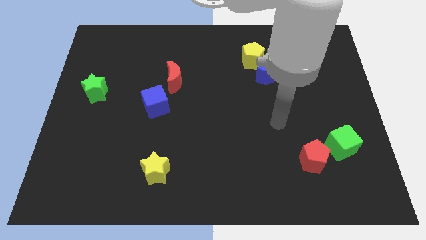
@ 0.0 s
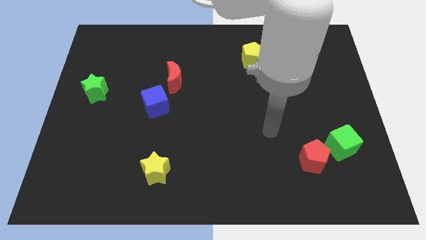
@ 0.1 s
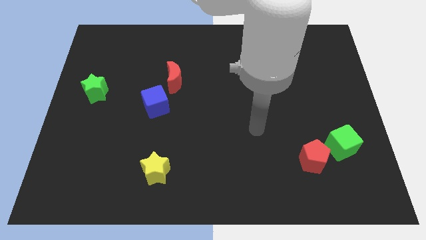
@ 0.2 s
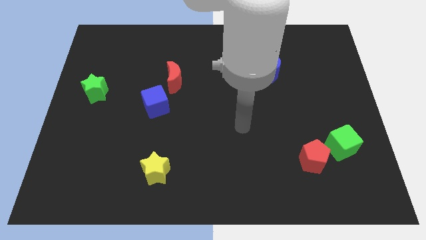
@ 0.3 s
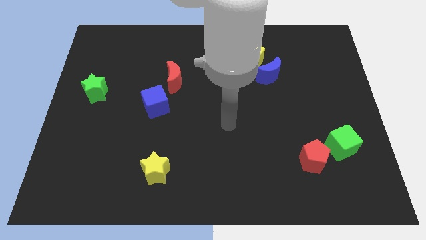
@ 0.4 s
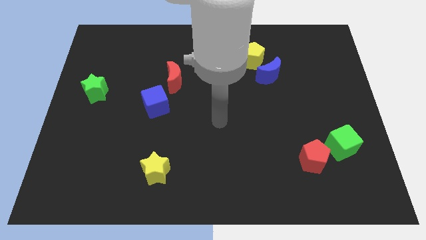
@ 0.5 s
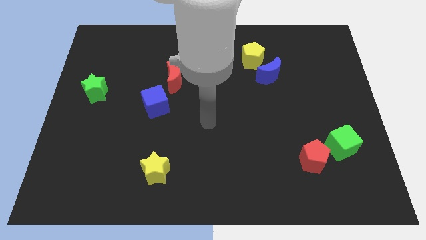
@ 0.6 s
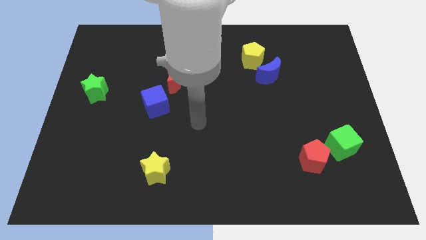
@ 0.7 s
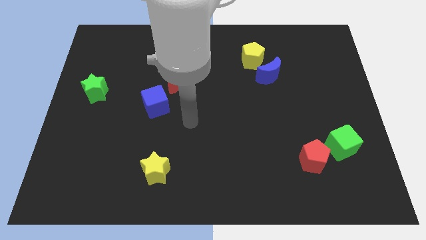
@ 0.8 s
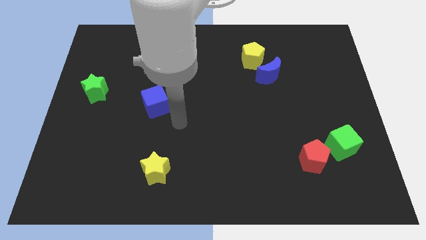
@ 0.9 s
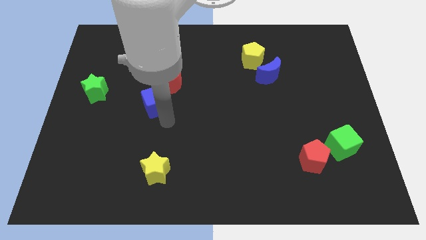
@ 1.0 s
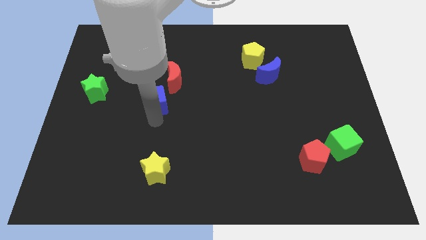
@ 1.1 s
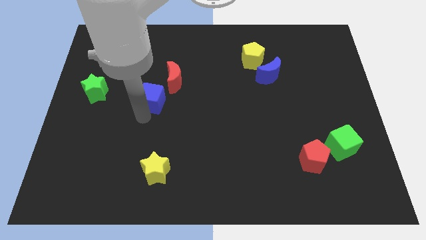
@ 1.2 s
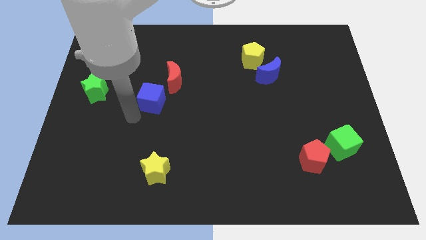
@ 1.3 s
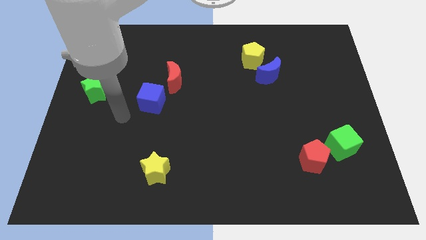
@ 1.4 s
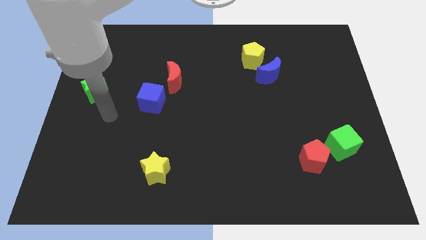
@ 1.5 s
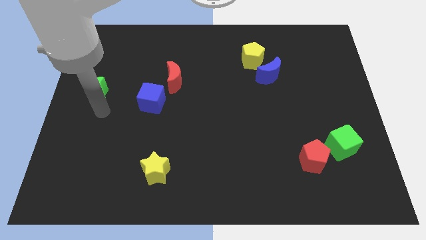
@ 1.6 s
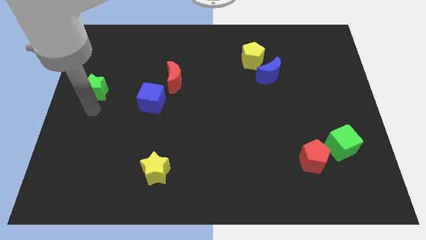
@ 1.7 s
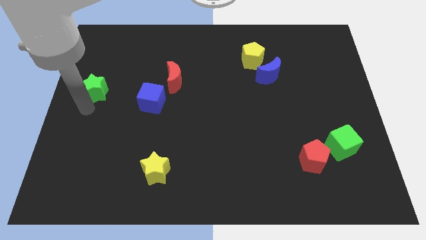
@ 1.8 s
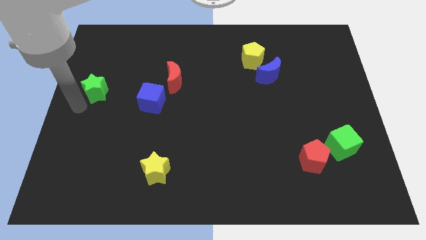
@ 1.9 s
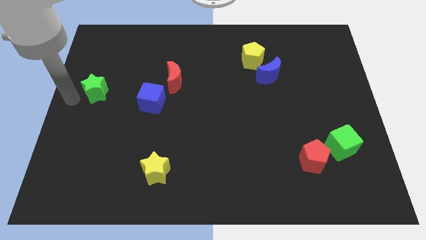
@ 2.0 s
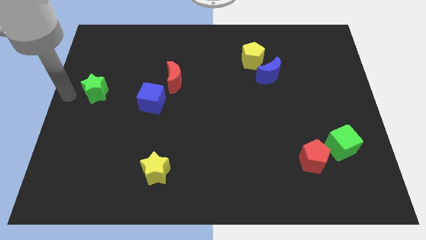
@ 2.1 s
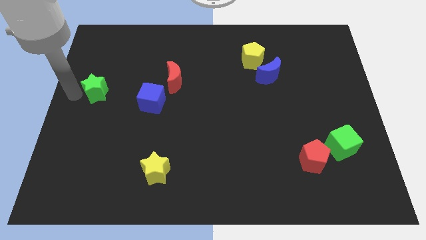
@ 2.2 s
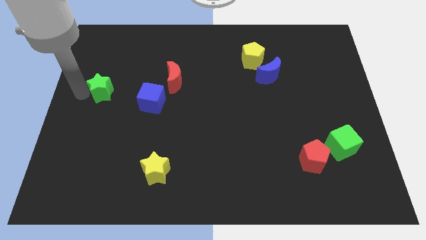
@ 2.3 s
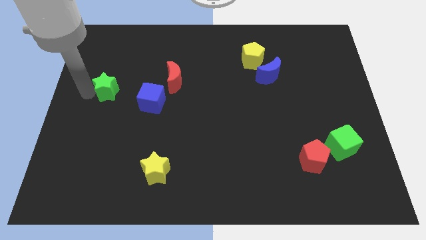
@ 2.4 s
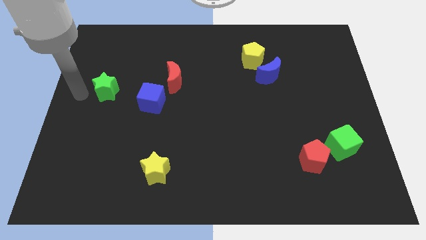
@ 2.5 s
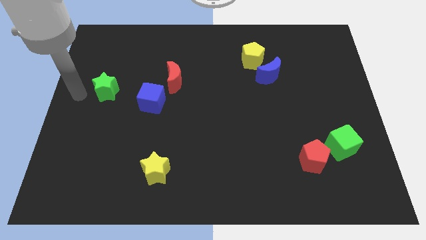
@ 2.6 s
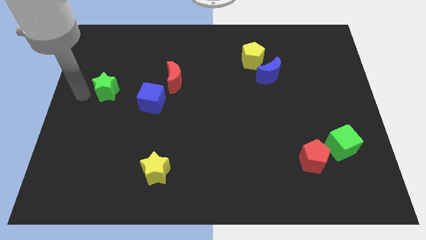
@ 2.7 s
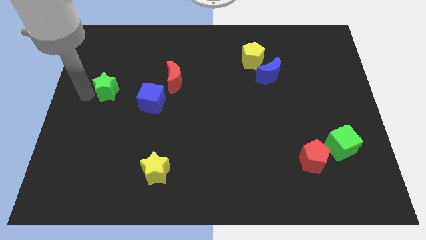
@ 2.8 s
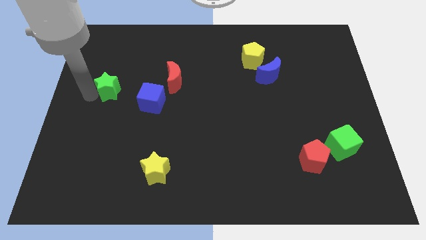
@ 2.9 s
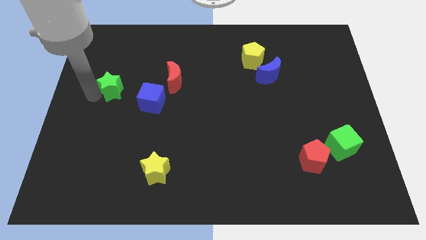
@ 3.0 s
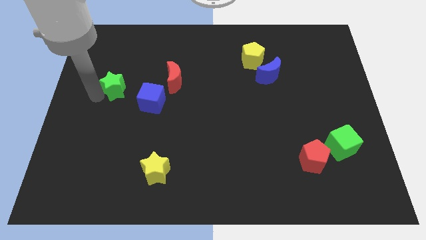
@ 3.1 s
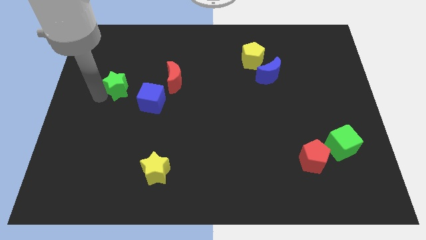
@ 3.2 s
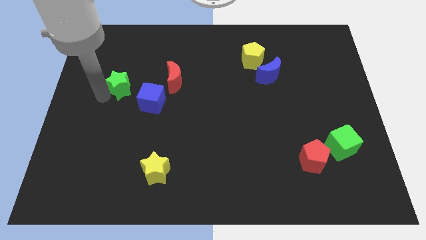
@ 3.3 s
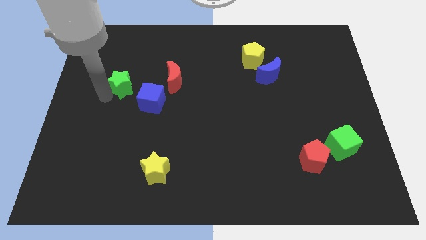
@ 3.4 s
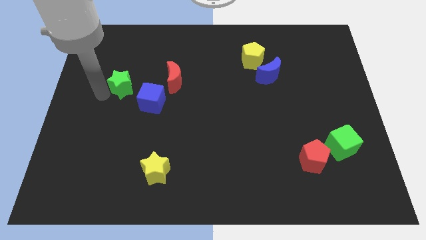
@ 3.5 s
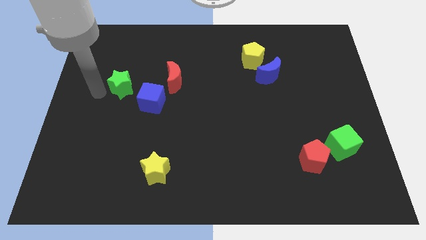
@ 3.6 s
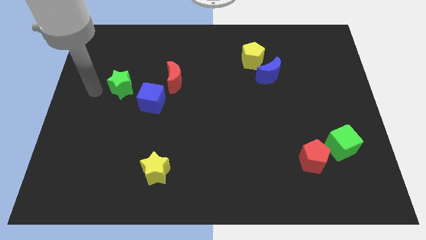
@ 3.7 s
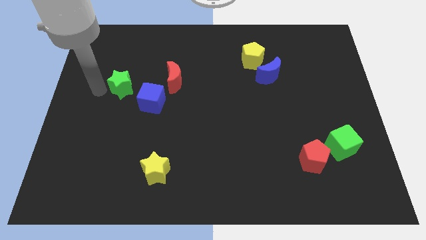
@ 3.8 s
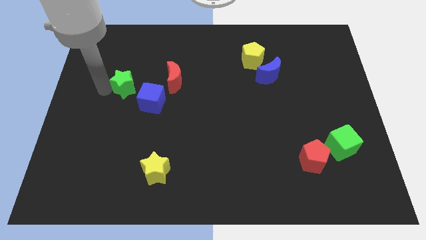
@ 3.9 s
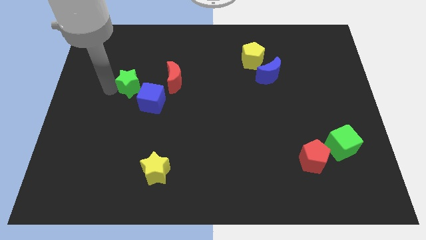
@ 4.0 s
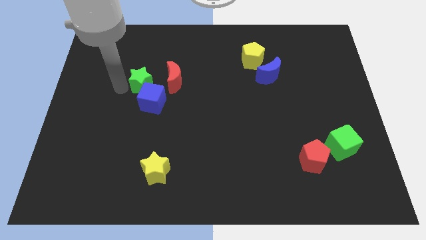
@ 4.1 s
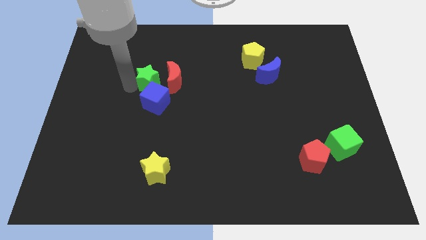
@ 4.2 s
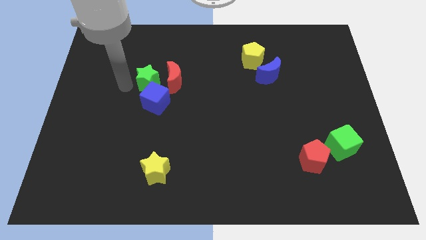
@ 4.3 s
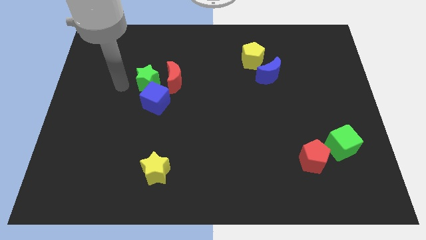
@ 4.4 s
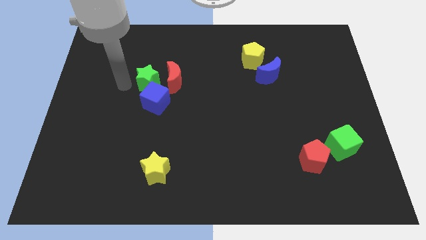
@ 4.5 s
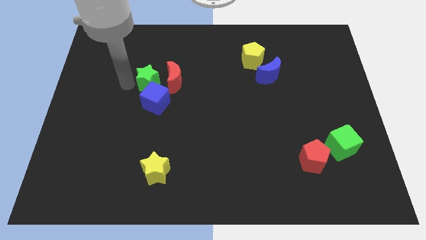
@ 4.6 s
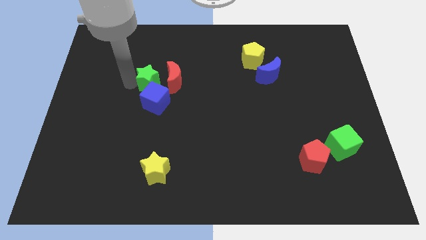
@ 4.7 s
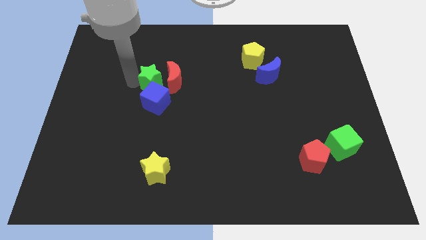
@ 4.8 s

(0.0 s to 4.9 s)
push the green star next to the red moon

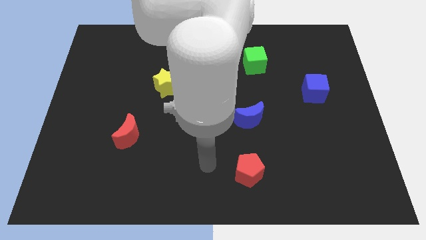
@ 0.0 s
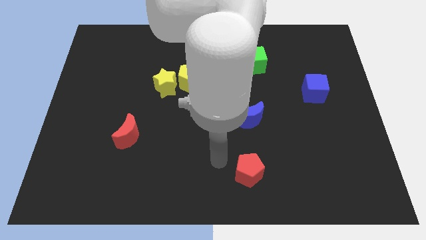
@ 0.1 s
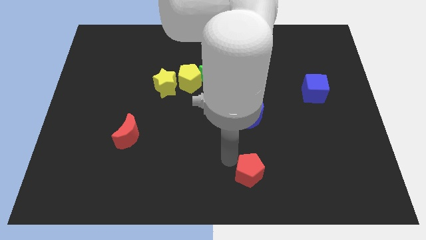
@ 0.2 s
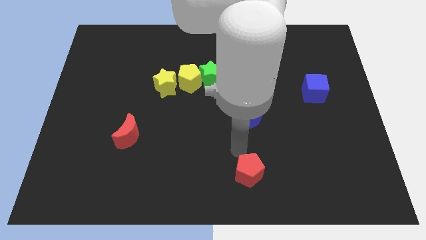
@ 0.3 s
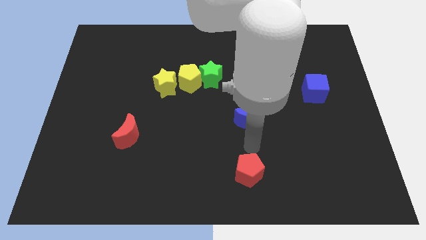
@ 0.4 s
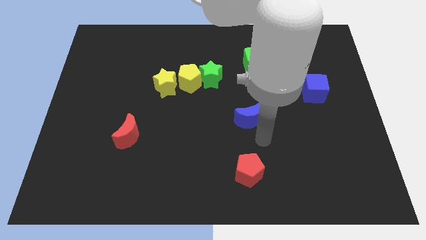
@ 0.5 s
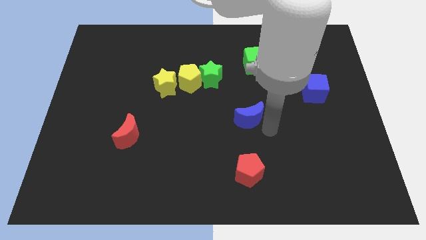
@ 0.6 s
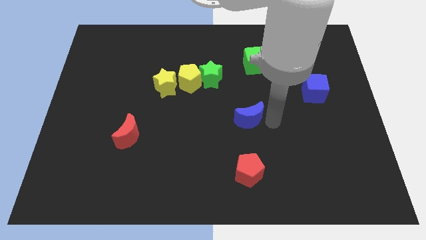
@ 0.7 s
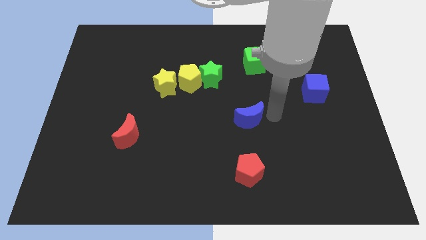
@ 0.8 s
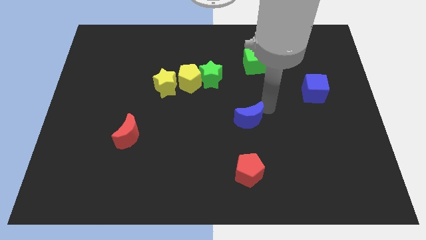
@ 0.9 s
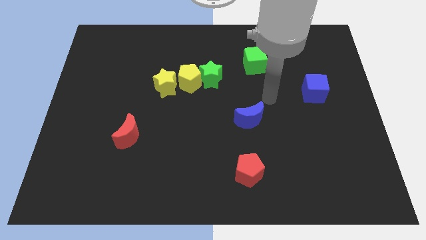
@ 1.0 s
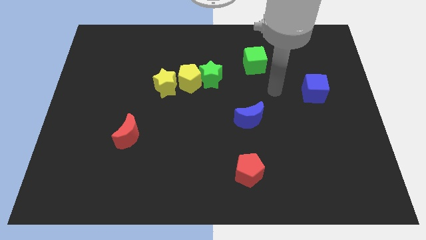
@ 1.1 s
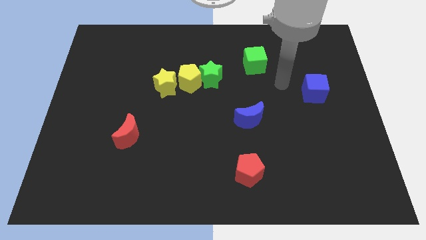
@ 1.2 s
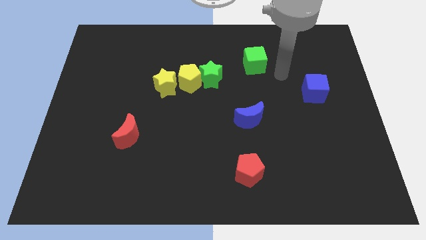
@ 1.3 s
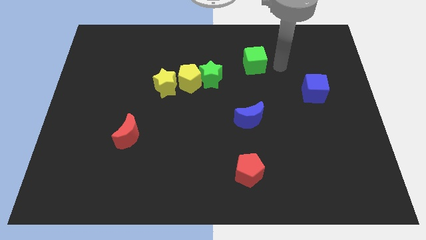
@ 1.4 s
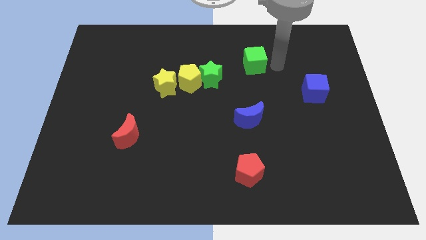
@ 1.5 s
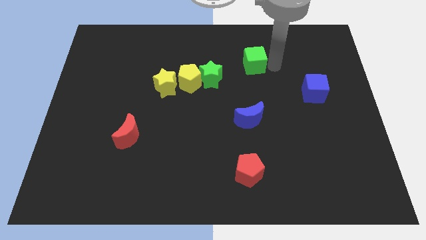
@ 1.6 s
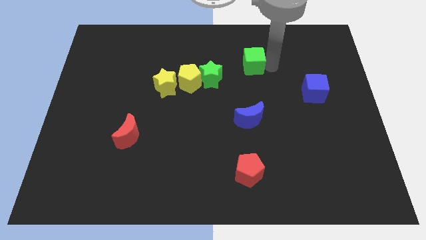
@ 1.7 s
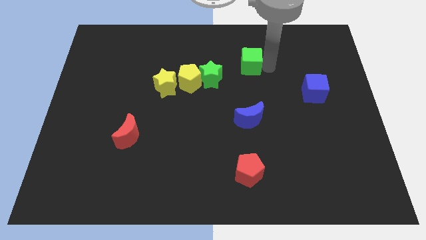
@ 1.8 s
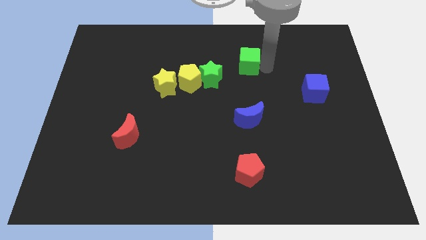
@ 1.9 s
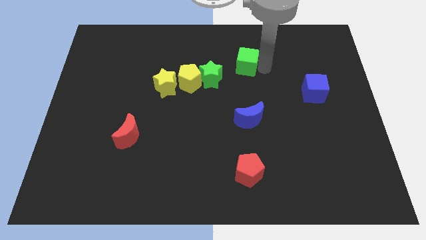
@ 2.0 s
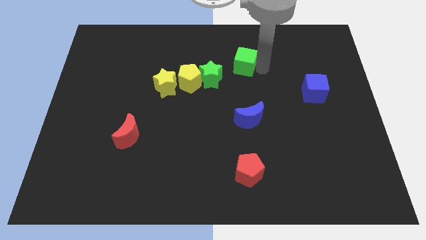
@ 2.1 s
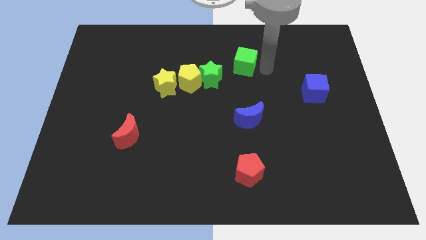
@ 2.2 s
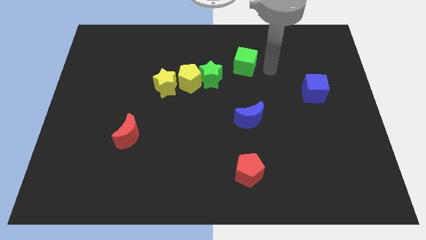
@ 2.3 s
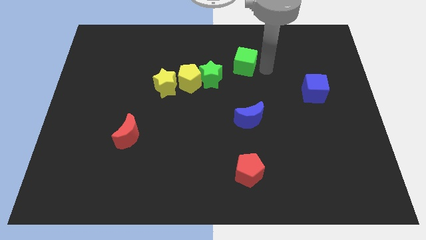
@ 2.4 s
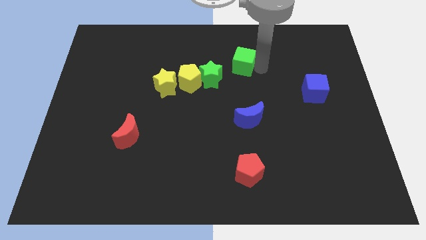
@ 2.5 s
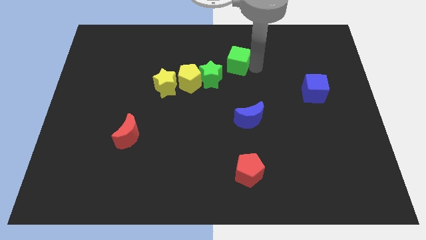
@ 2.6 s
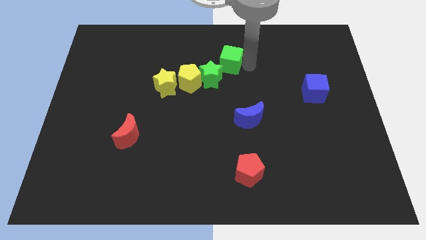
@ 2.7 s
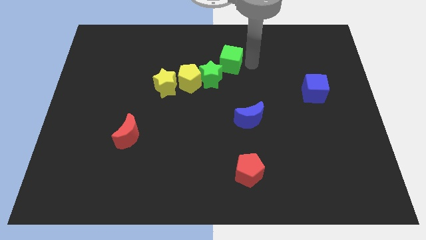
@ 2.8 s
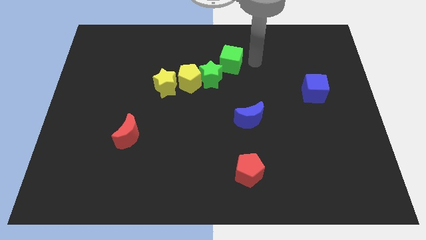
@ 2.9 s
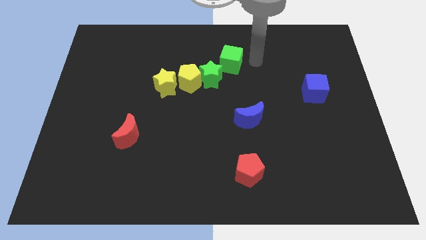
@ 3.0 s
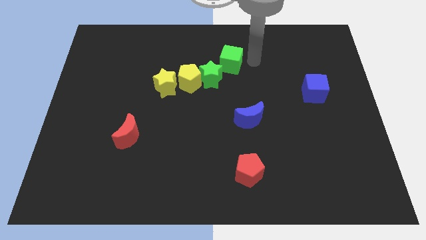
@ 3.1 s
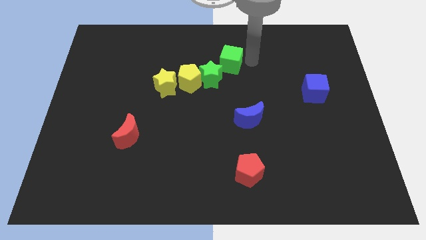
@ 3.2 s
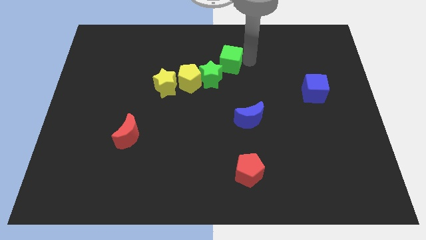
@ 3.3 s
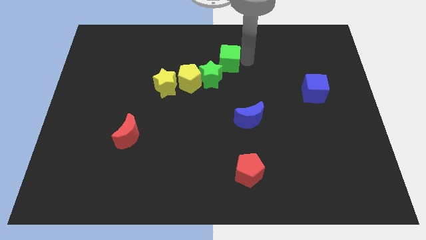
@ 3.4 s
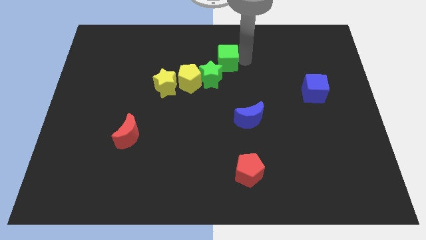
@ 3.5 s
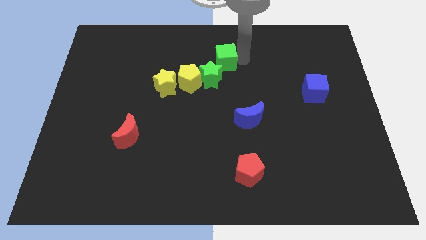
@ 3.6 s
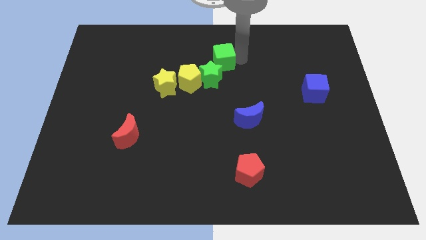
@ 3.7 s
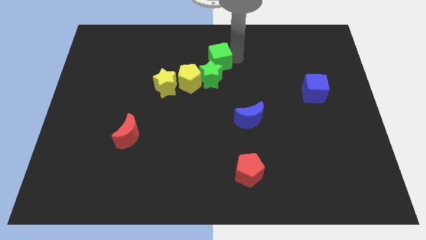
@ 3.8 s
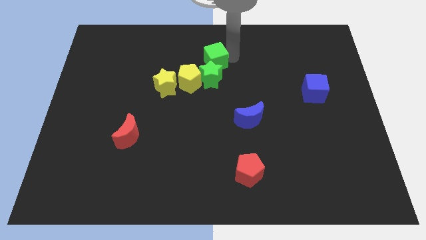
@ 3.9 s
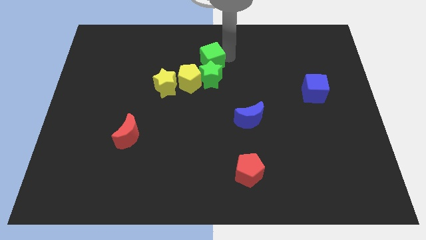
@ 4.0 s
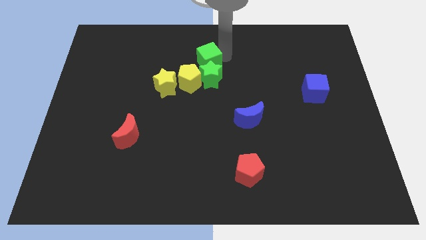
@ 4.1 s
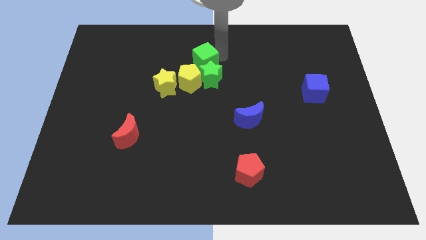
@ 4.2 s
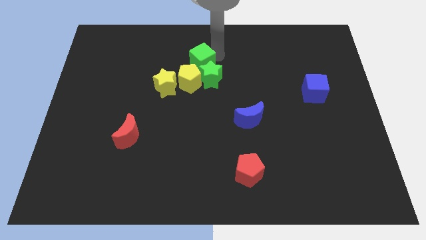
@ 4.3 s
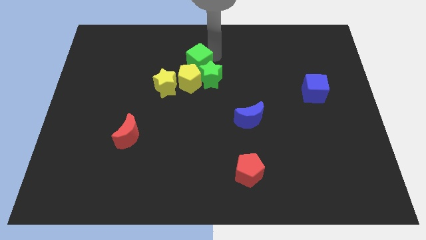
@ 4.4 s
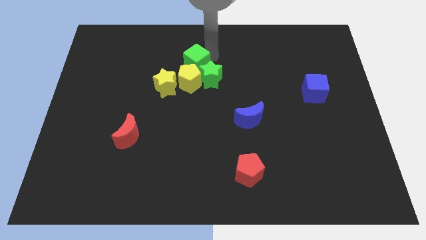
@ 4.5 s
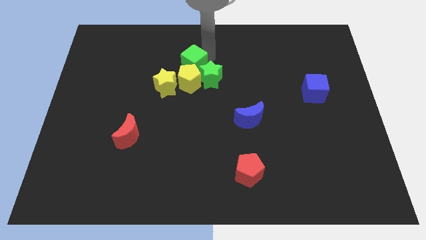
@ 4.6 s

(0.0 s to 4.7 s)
put the green cube close to the yellow pentagon
